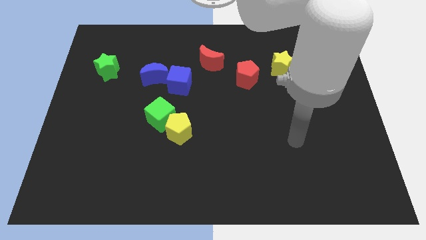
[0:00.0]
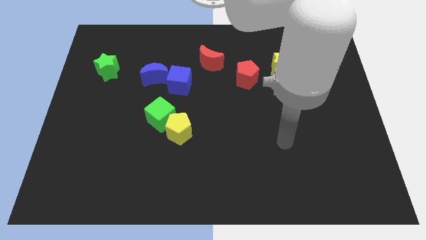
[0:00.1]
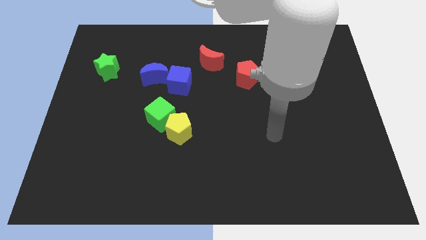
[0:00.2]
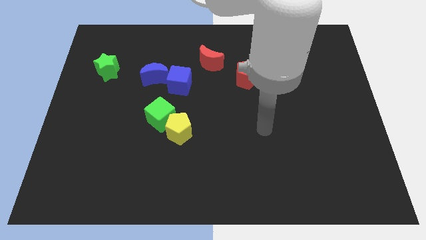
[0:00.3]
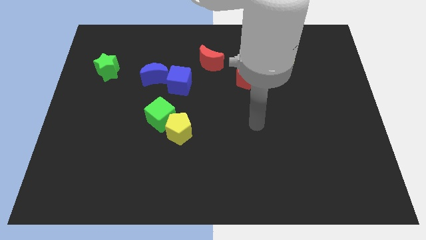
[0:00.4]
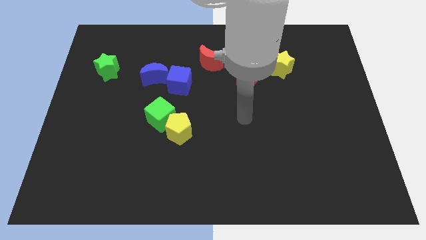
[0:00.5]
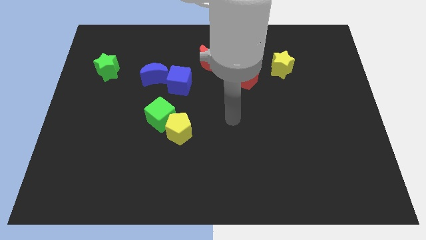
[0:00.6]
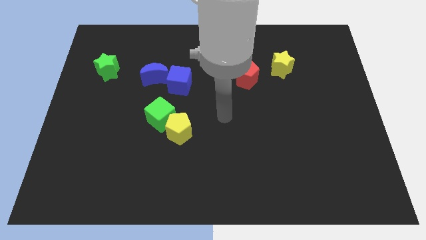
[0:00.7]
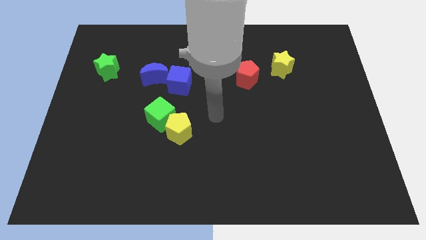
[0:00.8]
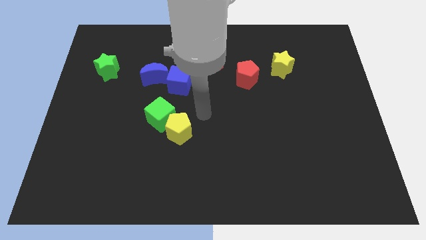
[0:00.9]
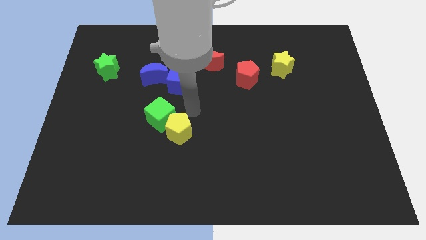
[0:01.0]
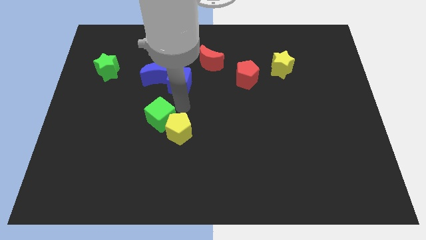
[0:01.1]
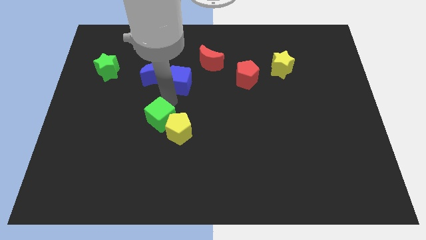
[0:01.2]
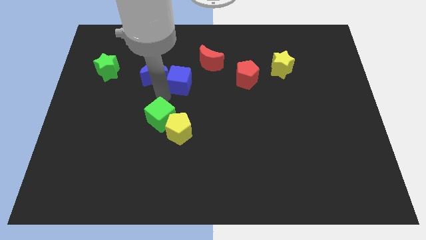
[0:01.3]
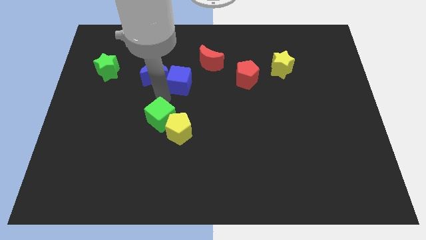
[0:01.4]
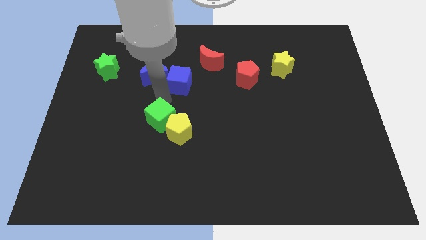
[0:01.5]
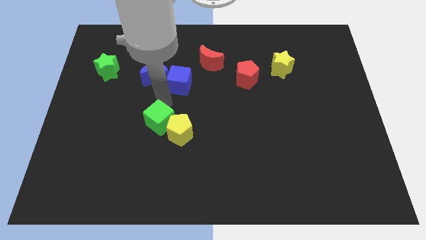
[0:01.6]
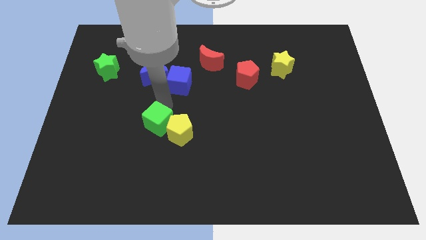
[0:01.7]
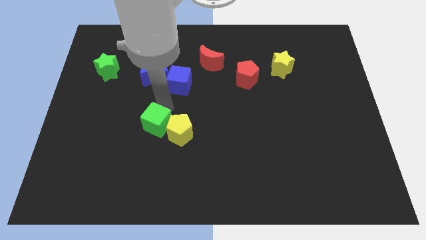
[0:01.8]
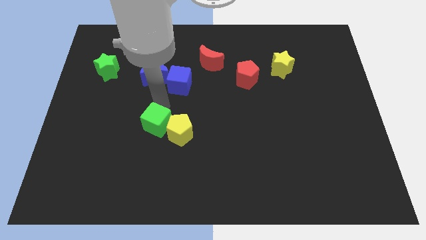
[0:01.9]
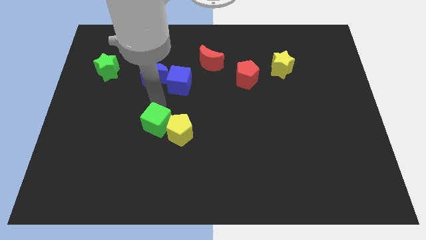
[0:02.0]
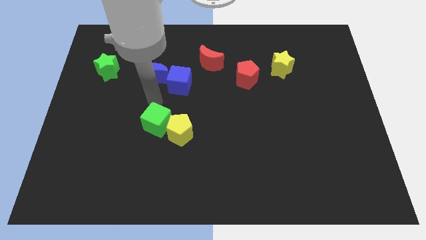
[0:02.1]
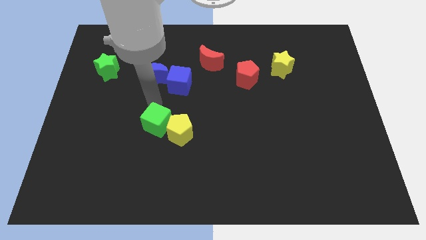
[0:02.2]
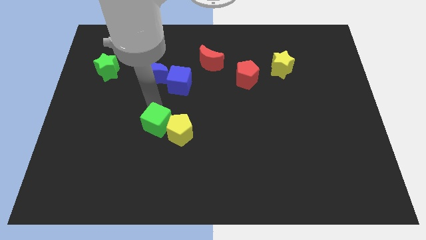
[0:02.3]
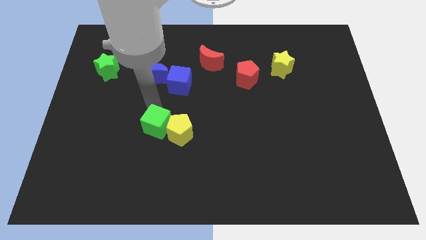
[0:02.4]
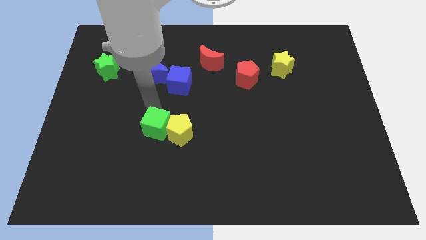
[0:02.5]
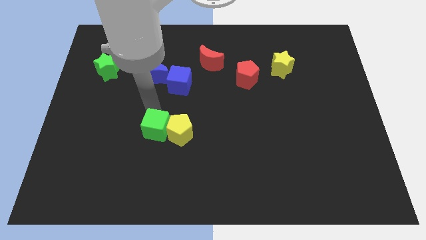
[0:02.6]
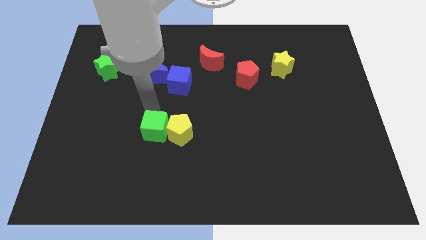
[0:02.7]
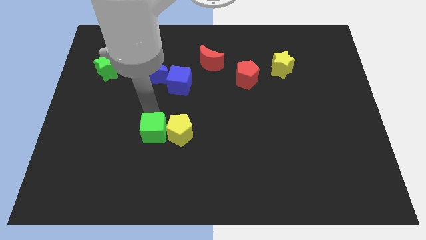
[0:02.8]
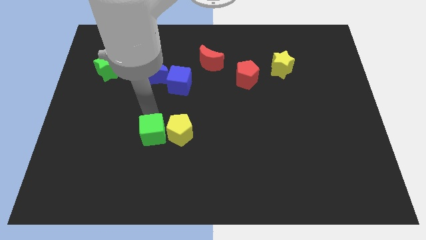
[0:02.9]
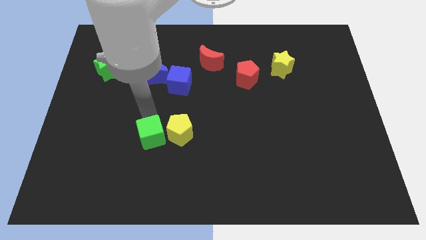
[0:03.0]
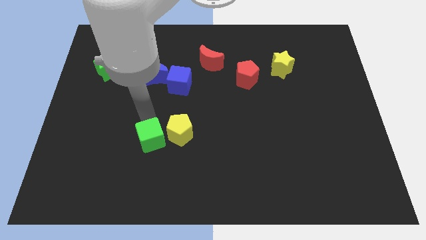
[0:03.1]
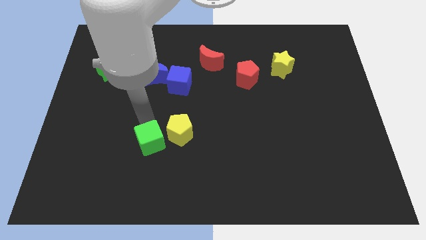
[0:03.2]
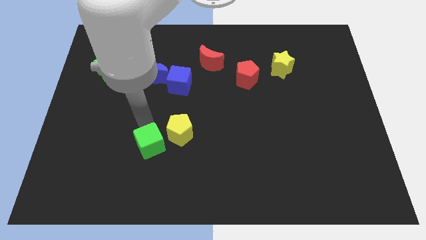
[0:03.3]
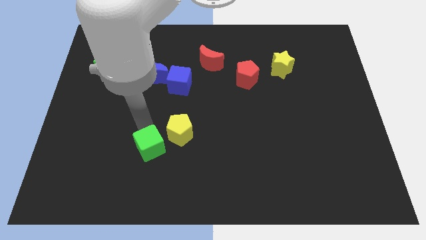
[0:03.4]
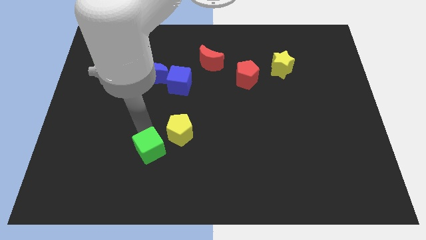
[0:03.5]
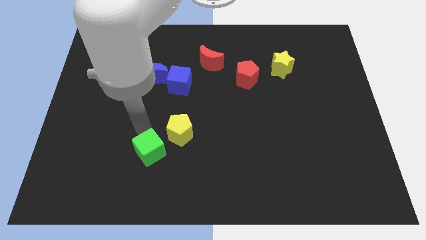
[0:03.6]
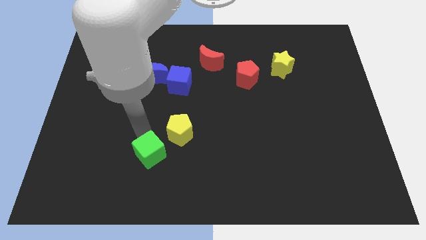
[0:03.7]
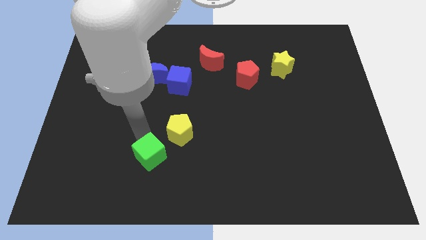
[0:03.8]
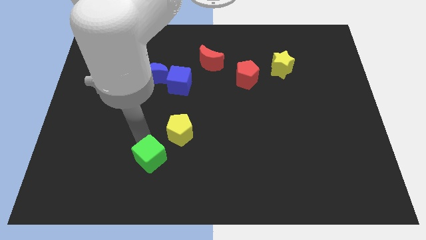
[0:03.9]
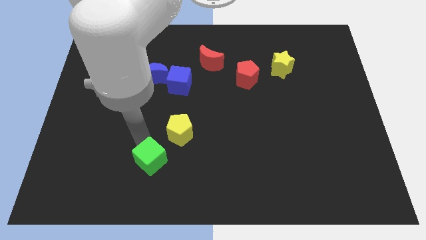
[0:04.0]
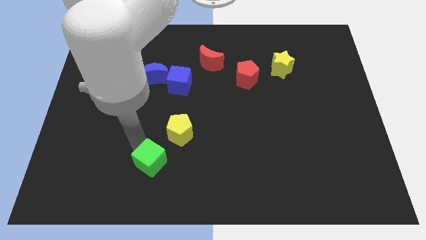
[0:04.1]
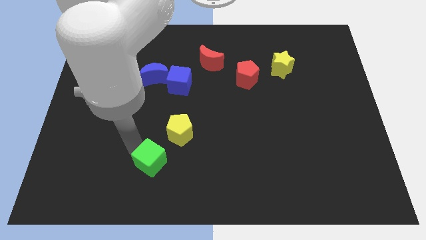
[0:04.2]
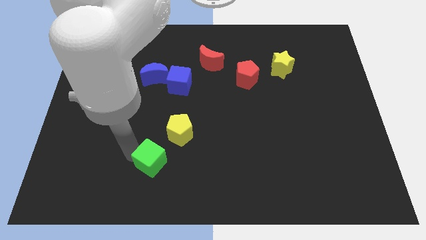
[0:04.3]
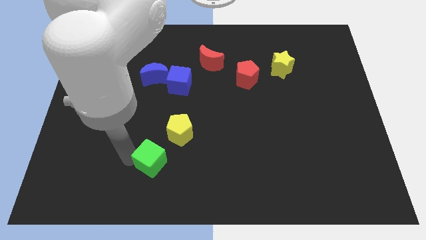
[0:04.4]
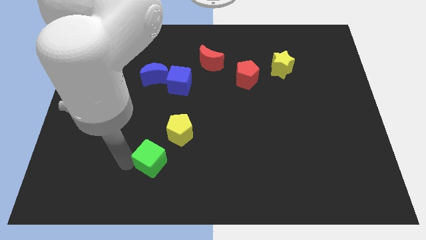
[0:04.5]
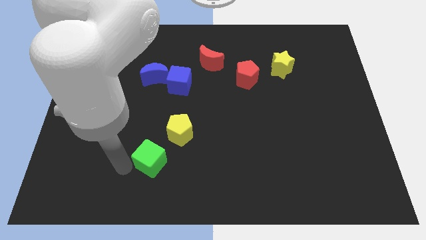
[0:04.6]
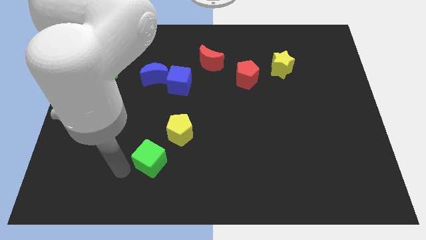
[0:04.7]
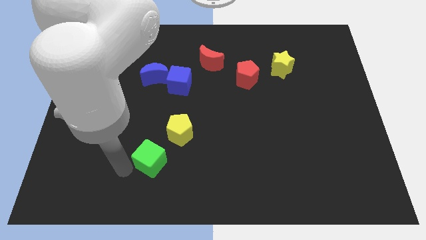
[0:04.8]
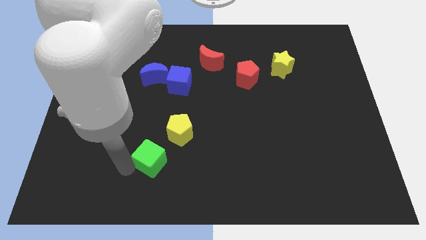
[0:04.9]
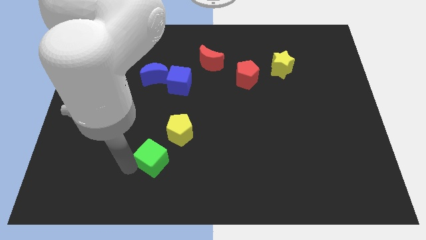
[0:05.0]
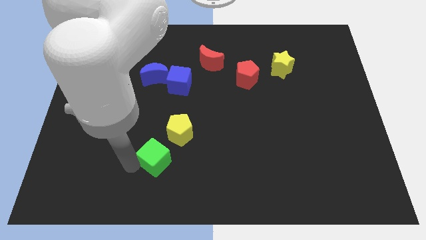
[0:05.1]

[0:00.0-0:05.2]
slide the green cube to the bottom side of the yellow pentagon

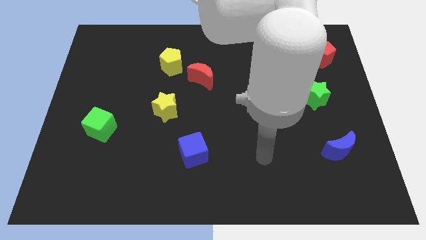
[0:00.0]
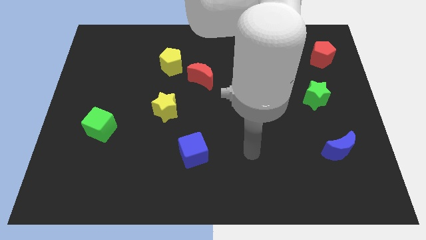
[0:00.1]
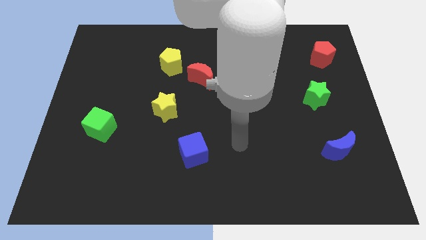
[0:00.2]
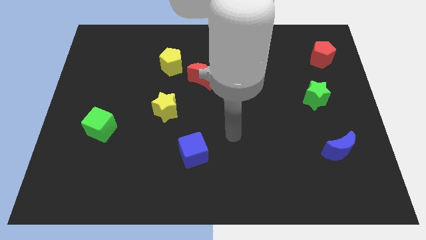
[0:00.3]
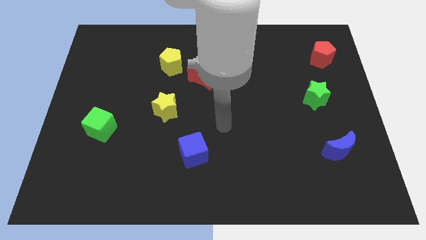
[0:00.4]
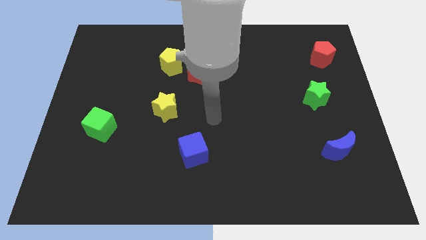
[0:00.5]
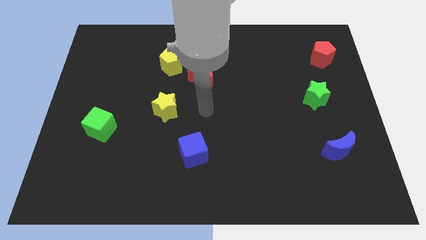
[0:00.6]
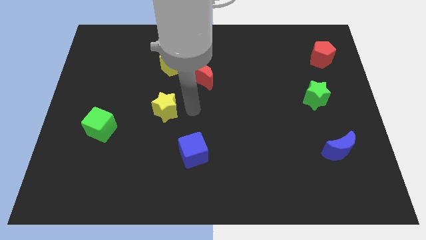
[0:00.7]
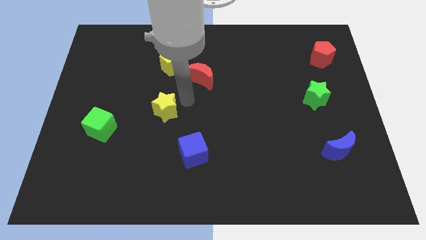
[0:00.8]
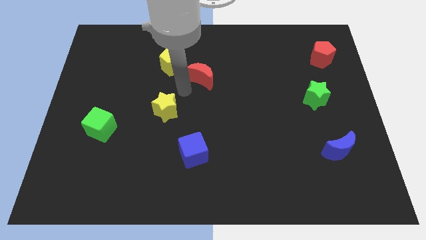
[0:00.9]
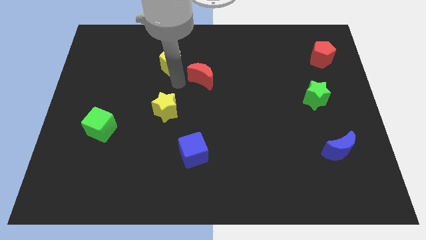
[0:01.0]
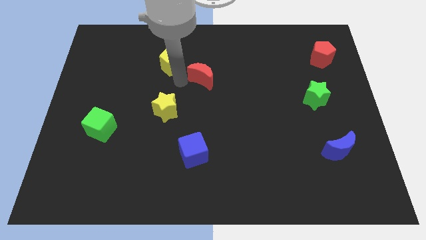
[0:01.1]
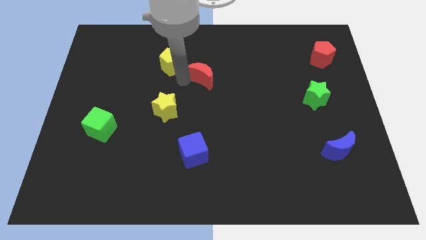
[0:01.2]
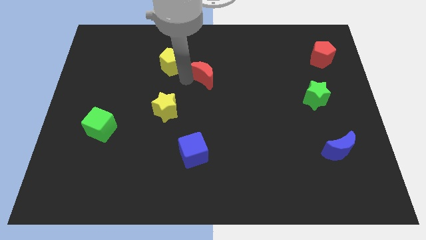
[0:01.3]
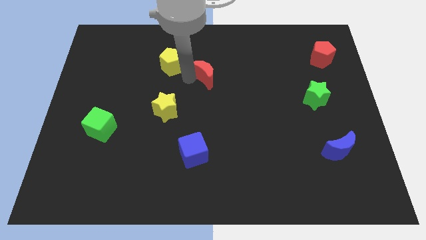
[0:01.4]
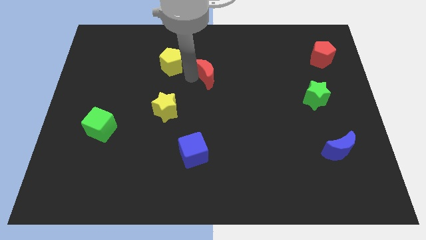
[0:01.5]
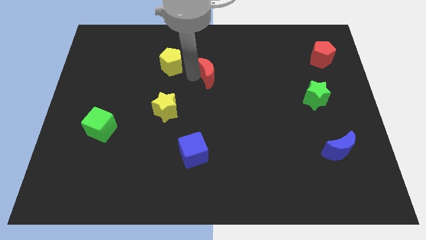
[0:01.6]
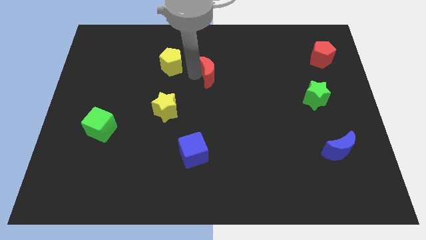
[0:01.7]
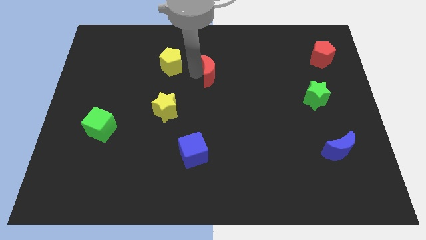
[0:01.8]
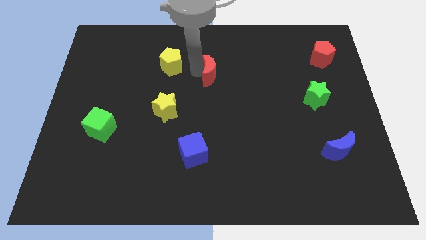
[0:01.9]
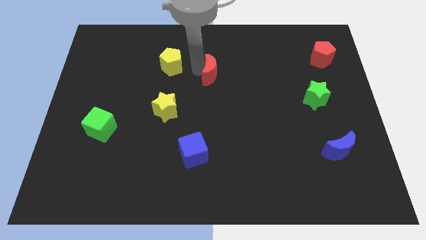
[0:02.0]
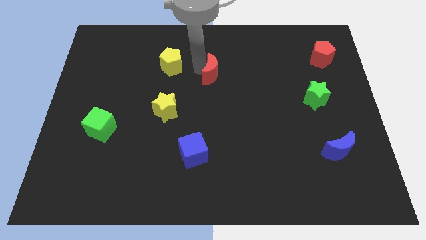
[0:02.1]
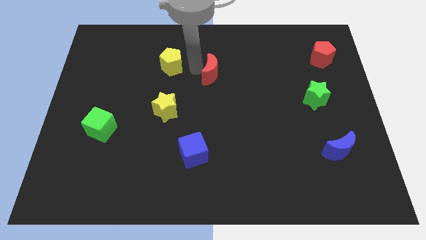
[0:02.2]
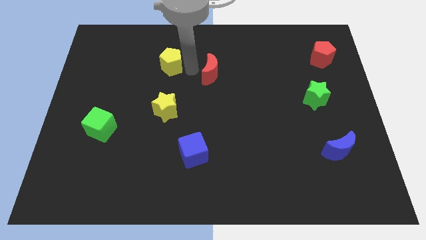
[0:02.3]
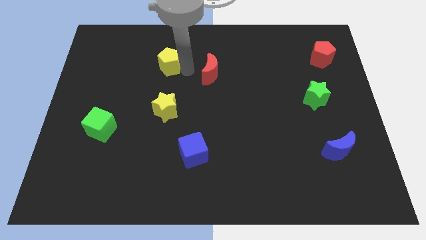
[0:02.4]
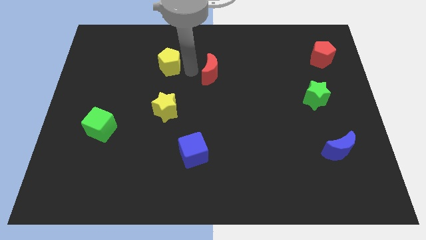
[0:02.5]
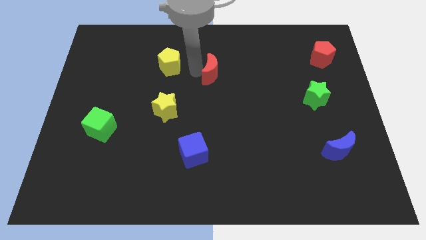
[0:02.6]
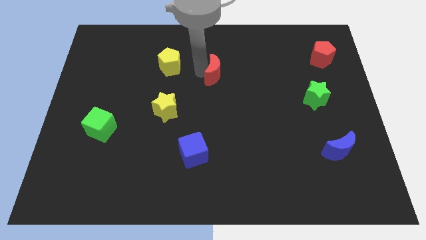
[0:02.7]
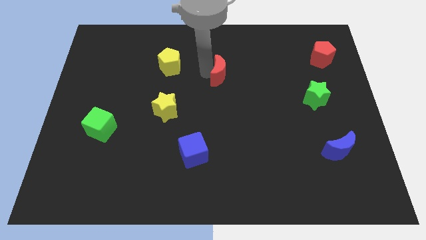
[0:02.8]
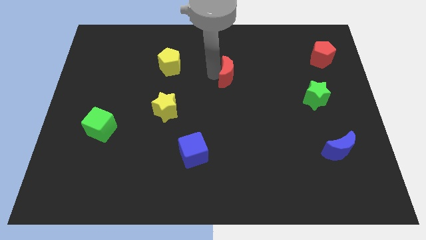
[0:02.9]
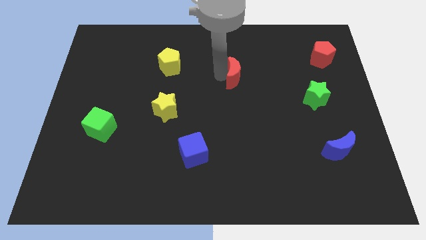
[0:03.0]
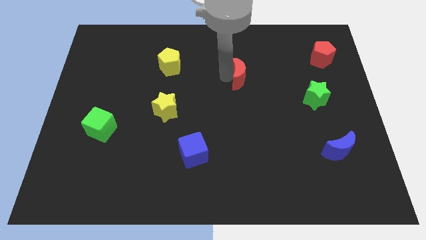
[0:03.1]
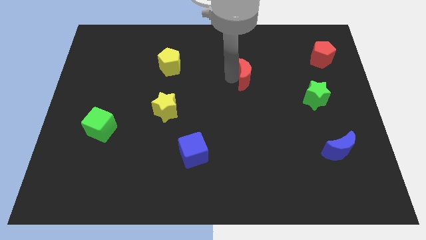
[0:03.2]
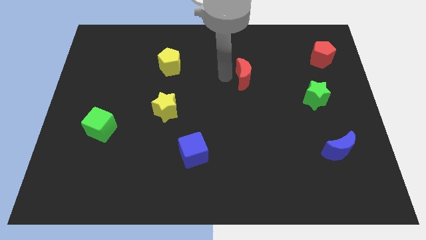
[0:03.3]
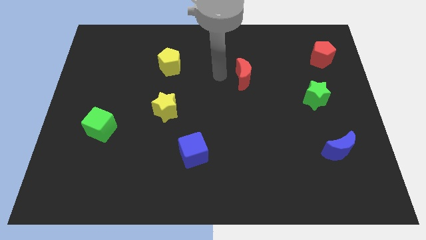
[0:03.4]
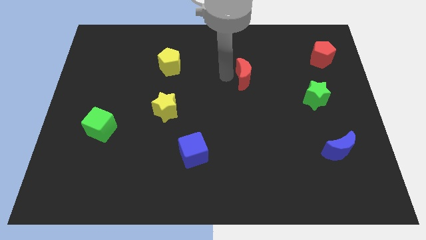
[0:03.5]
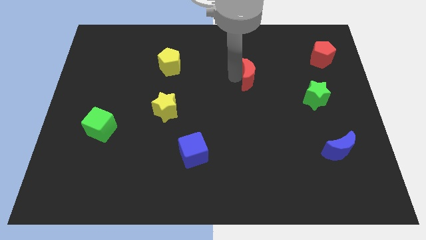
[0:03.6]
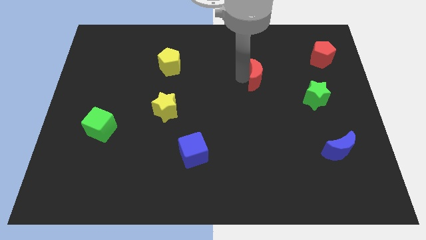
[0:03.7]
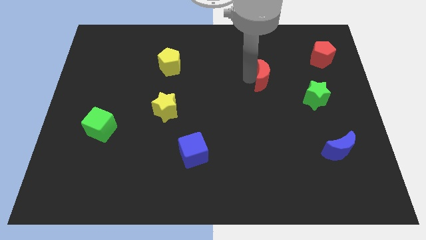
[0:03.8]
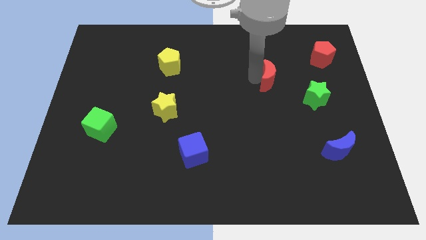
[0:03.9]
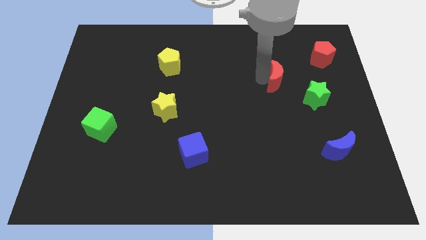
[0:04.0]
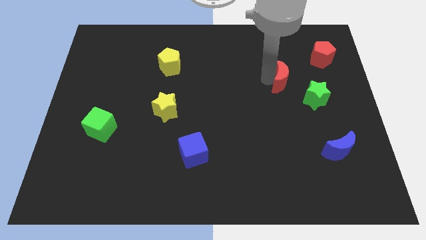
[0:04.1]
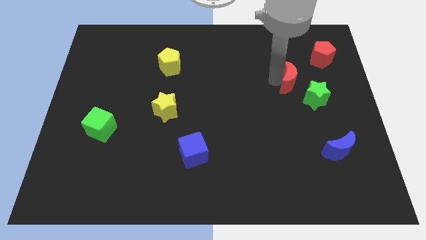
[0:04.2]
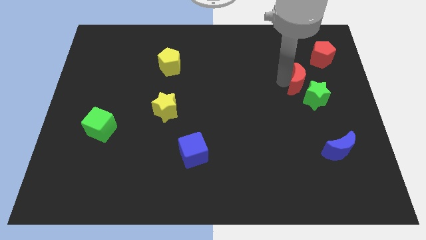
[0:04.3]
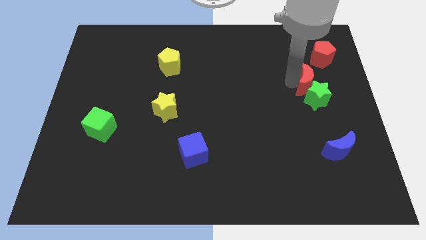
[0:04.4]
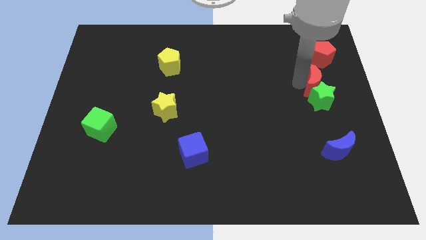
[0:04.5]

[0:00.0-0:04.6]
push the red moon below the red pentagon
